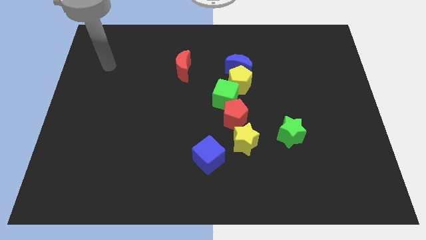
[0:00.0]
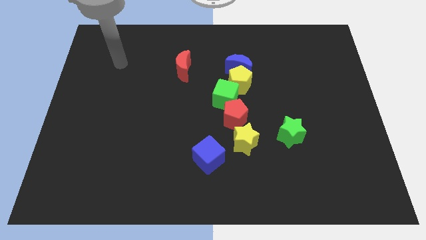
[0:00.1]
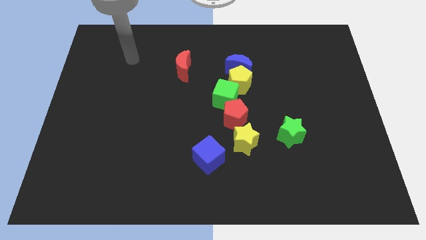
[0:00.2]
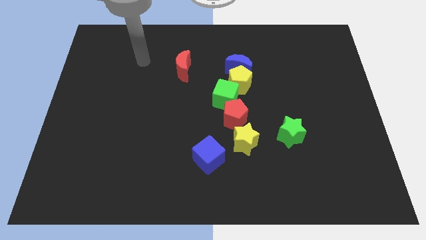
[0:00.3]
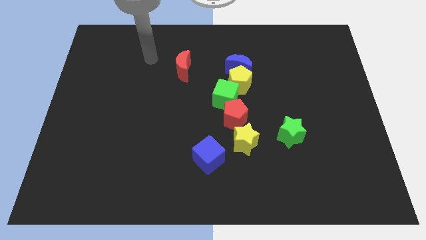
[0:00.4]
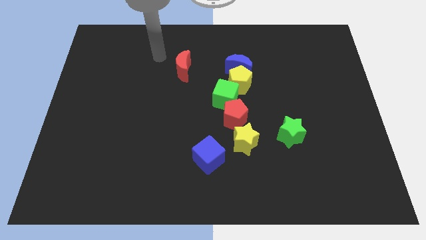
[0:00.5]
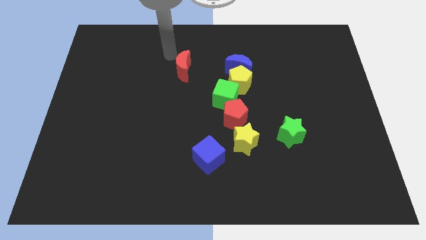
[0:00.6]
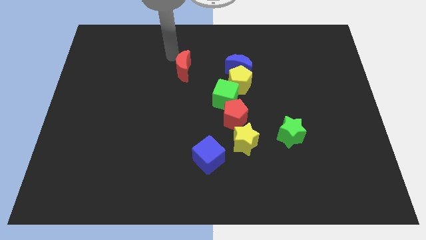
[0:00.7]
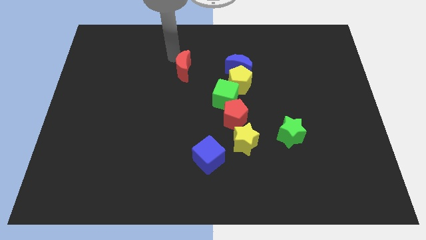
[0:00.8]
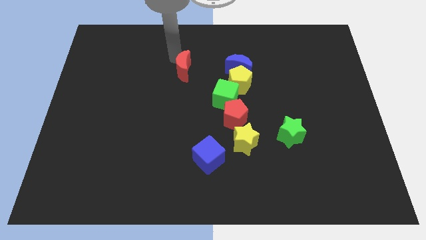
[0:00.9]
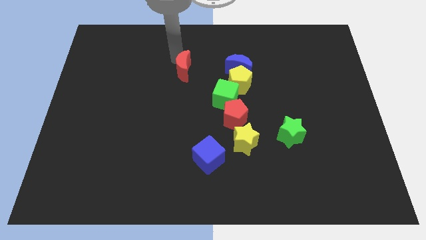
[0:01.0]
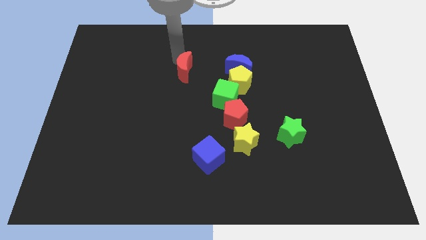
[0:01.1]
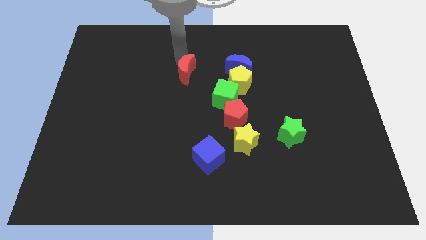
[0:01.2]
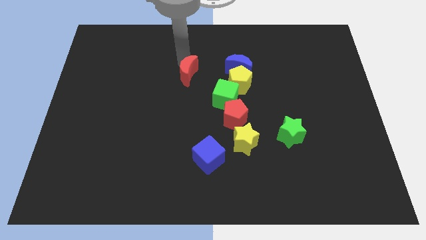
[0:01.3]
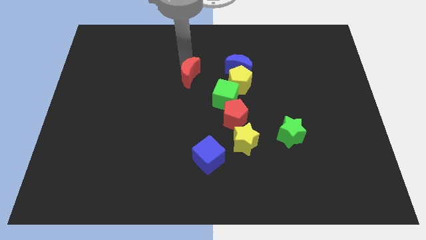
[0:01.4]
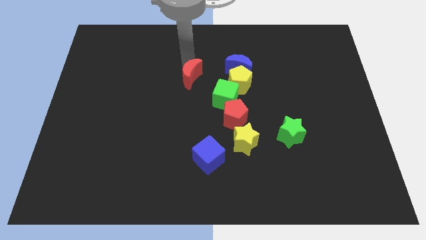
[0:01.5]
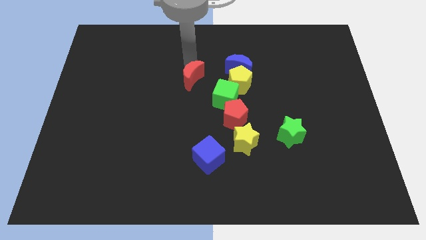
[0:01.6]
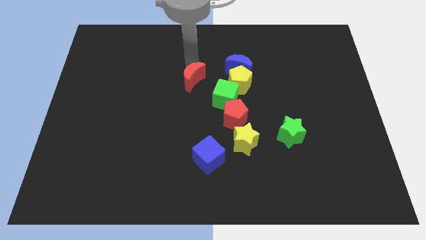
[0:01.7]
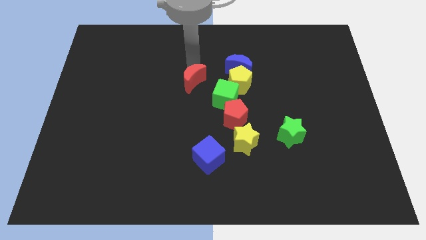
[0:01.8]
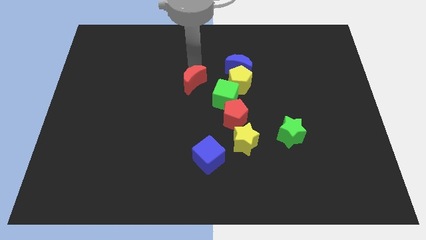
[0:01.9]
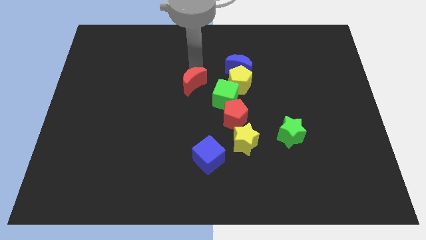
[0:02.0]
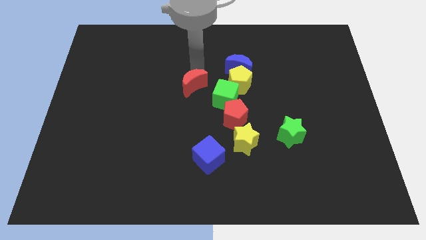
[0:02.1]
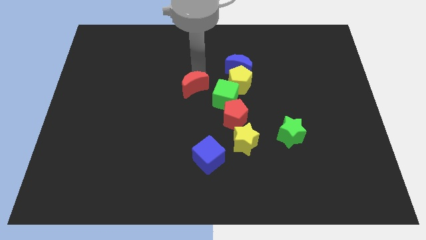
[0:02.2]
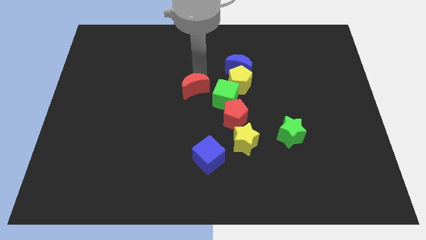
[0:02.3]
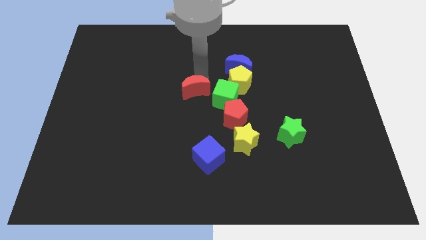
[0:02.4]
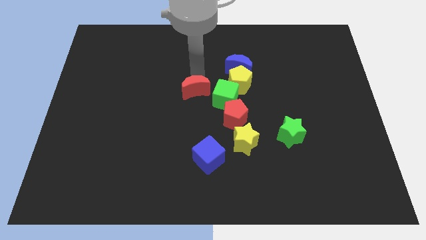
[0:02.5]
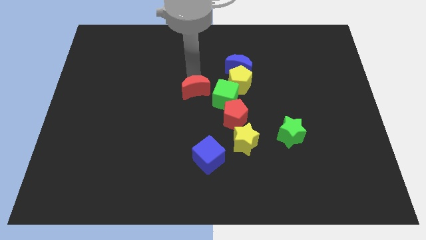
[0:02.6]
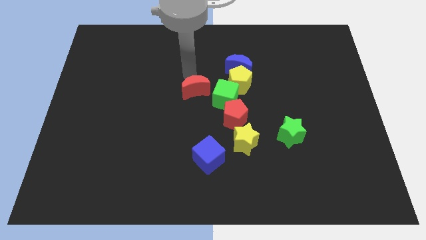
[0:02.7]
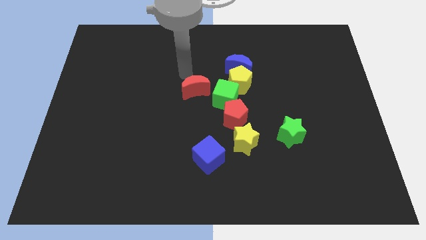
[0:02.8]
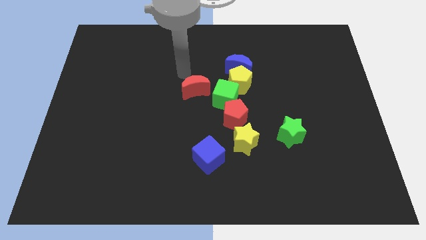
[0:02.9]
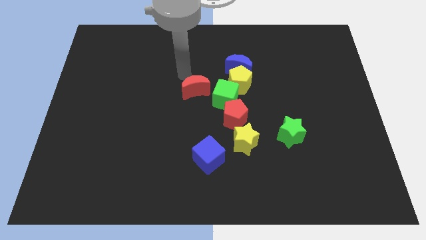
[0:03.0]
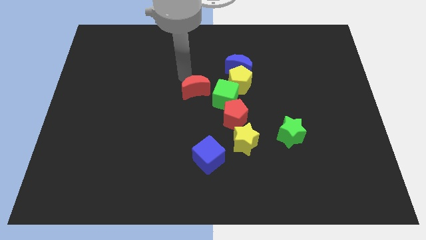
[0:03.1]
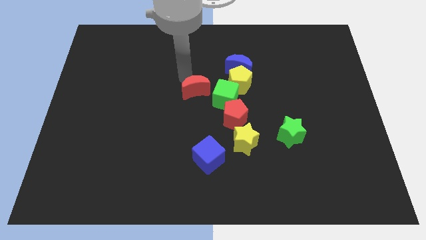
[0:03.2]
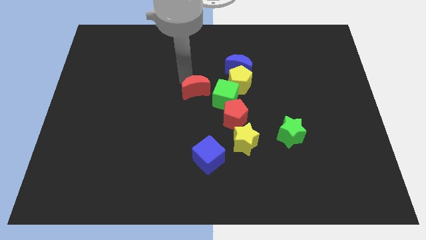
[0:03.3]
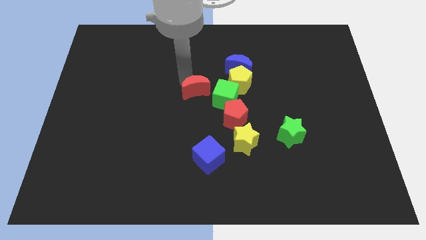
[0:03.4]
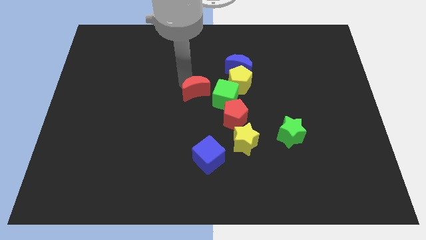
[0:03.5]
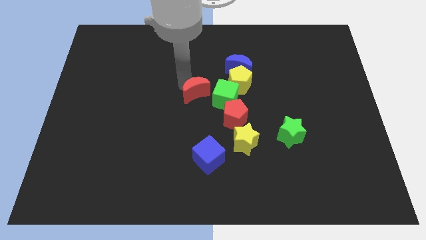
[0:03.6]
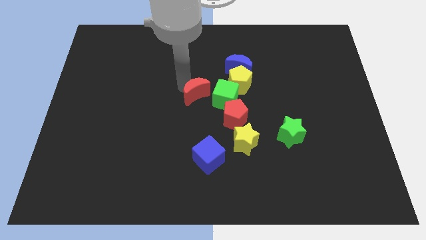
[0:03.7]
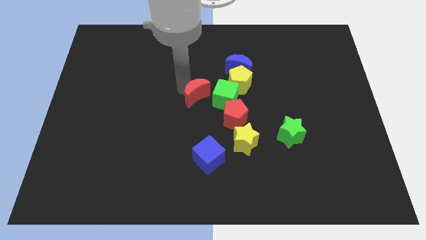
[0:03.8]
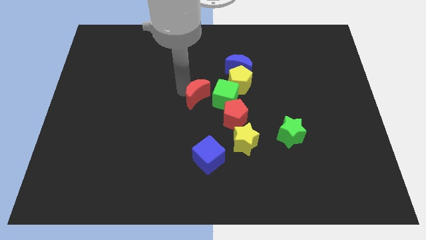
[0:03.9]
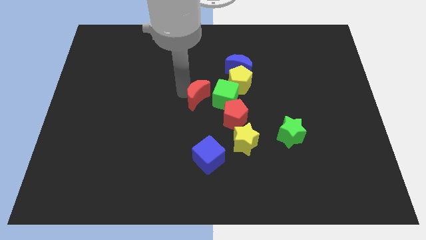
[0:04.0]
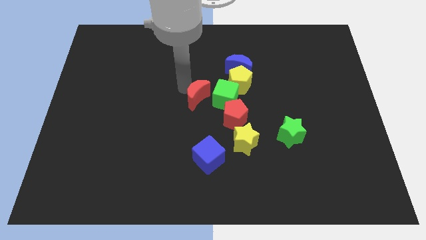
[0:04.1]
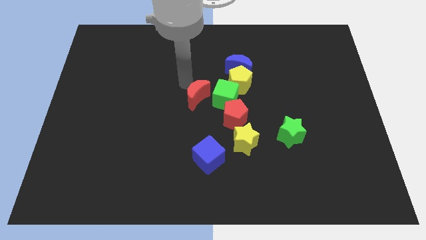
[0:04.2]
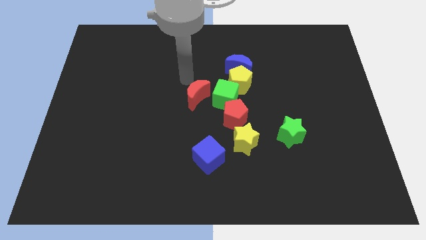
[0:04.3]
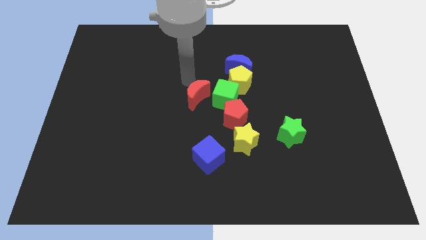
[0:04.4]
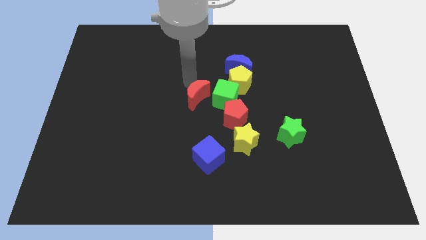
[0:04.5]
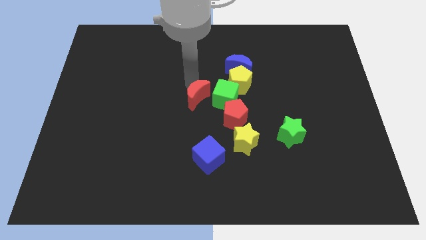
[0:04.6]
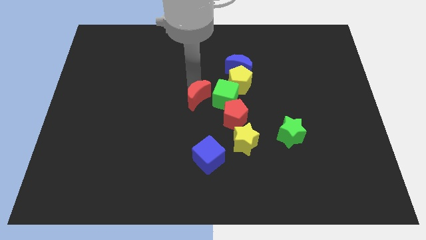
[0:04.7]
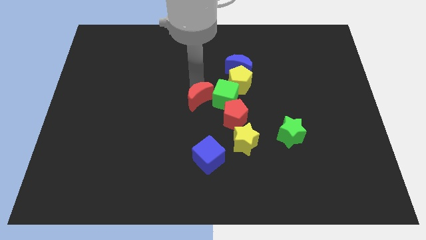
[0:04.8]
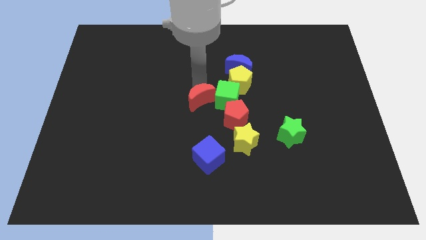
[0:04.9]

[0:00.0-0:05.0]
slide the red moon to the top side of the blue cube

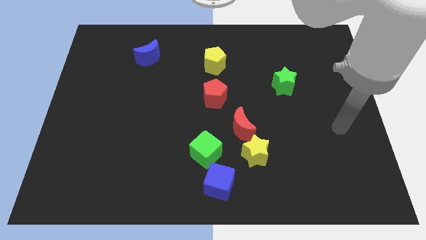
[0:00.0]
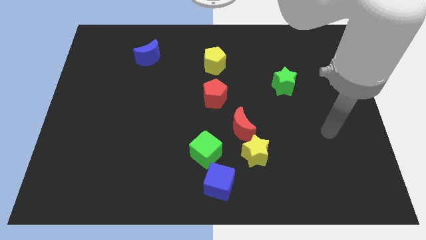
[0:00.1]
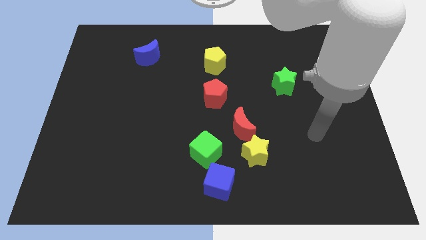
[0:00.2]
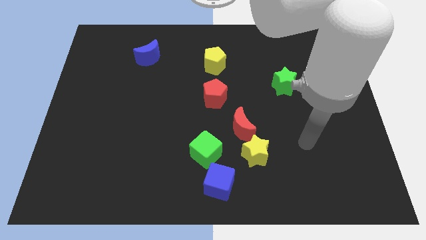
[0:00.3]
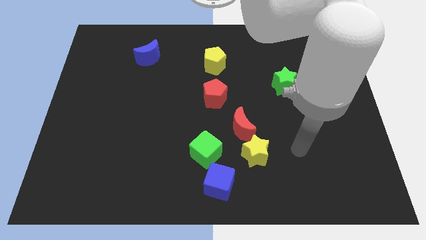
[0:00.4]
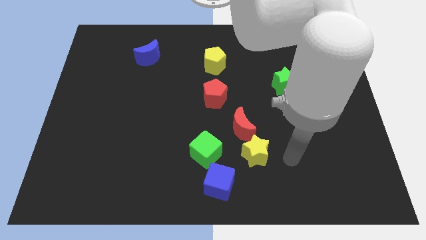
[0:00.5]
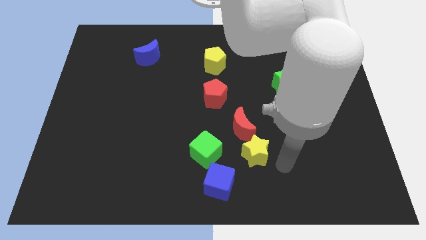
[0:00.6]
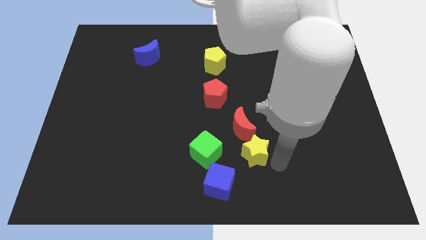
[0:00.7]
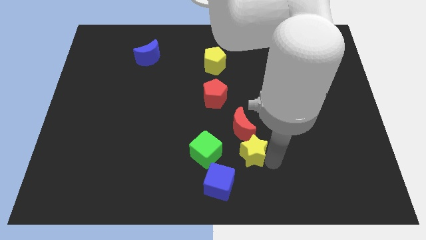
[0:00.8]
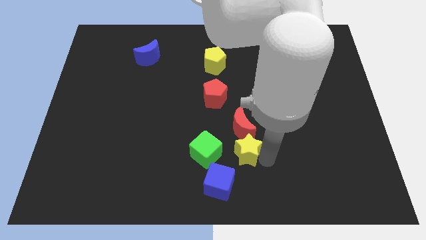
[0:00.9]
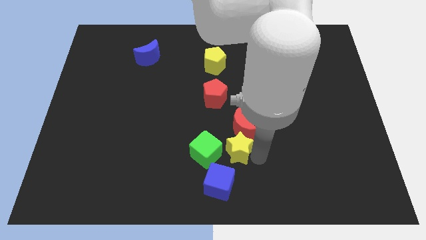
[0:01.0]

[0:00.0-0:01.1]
push the yellow star to the top of the blue cube
